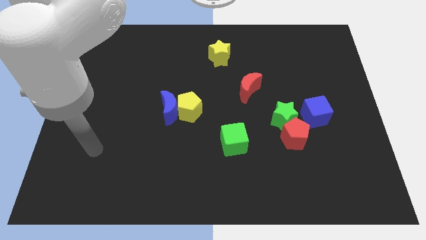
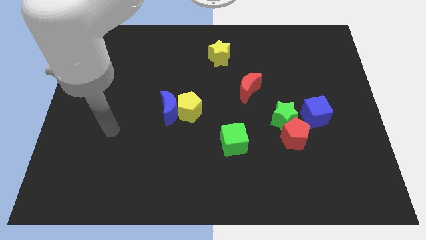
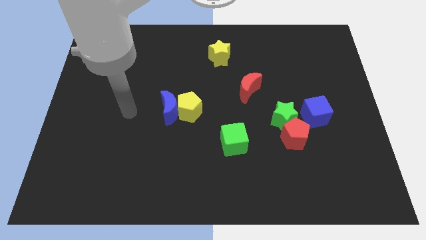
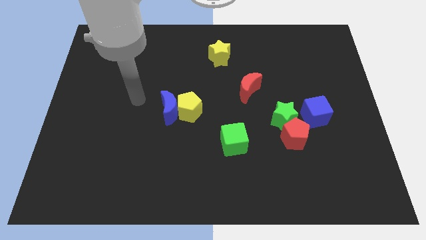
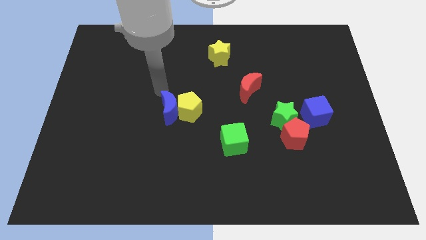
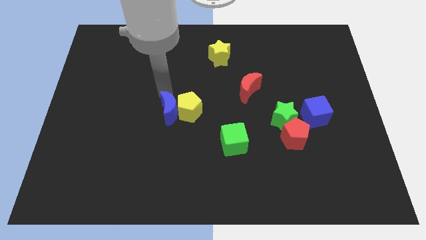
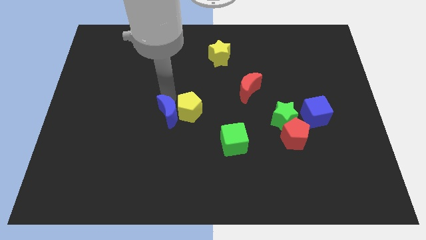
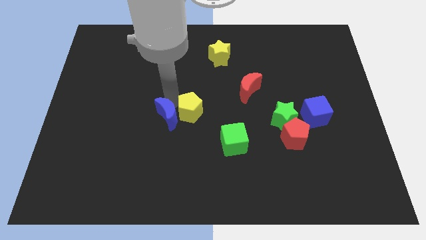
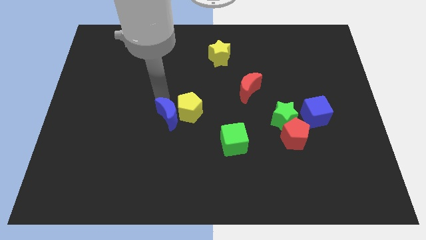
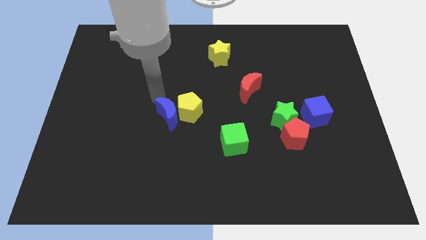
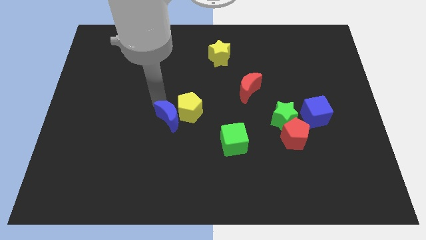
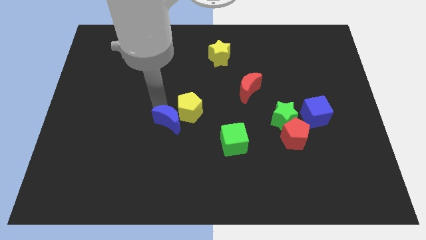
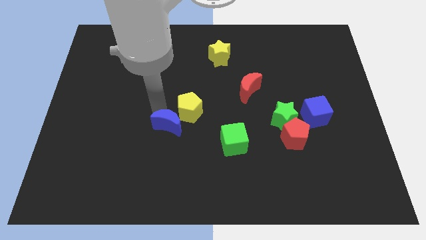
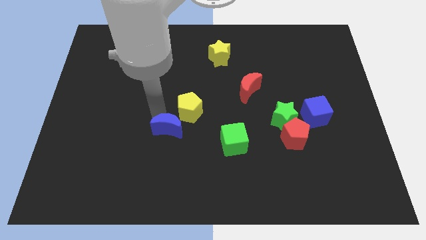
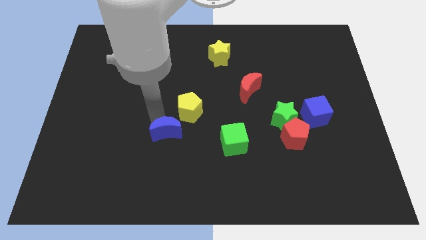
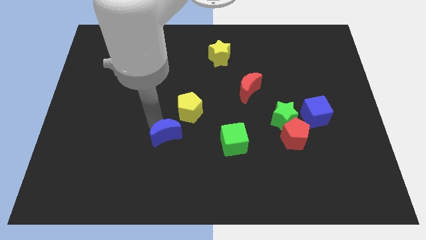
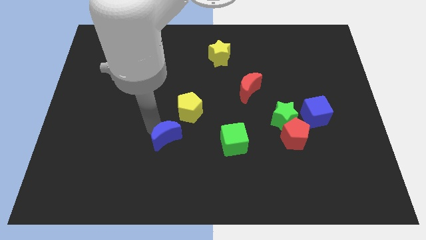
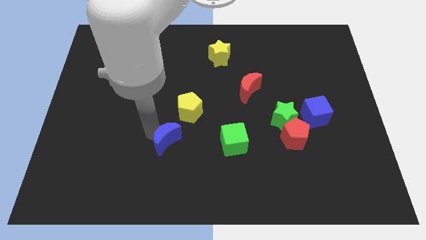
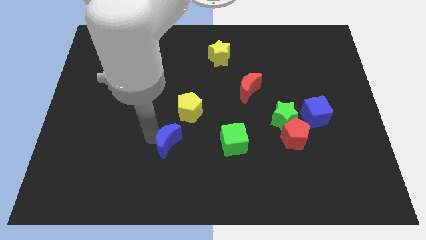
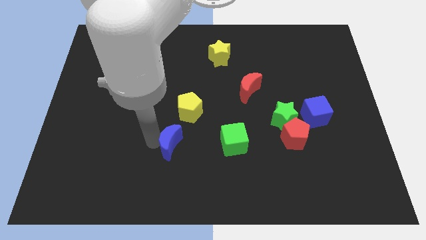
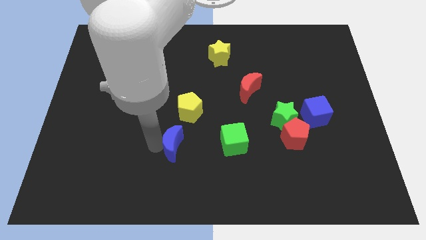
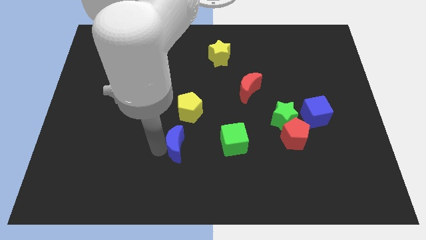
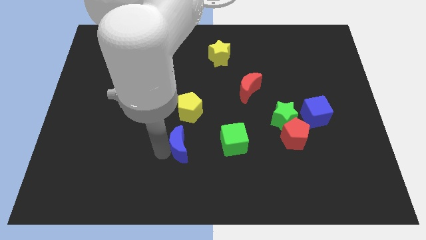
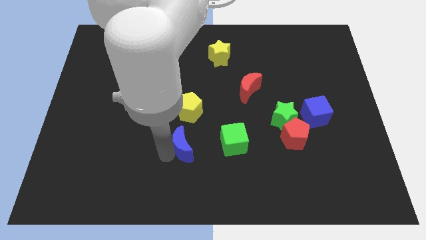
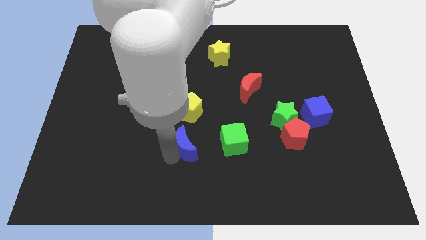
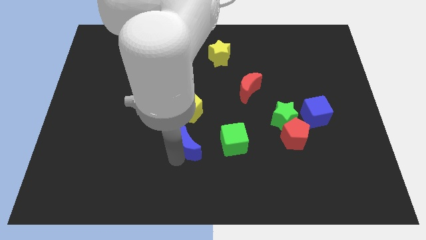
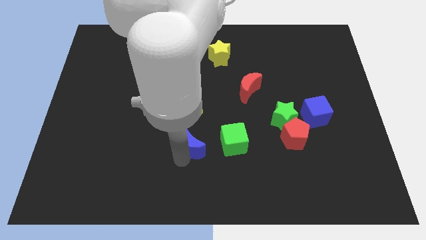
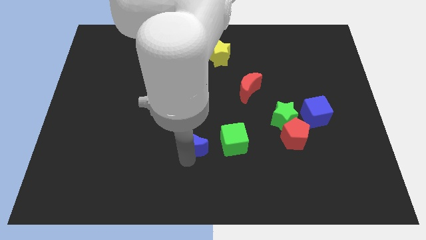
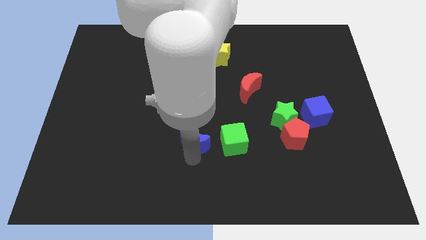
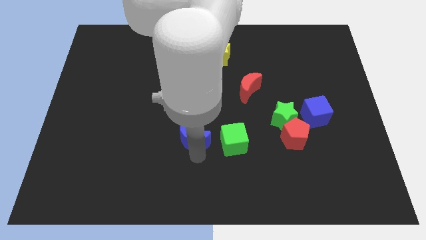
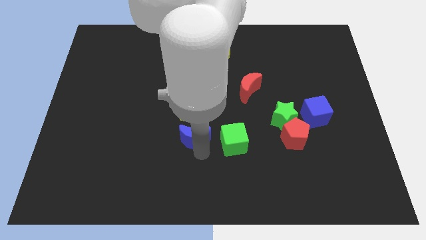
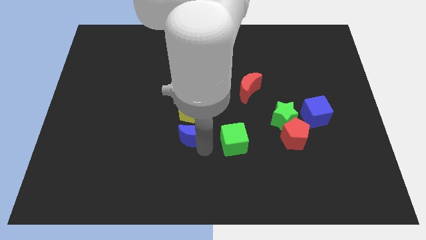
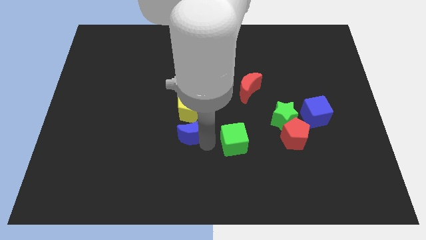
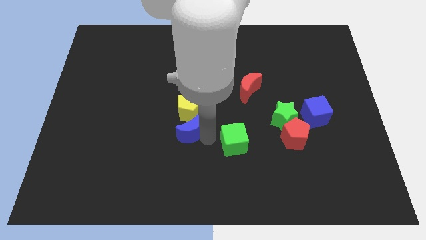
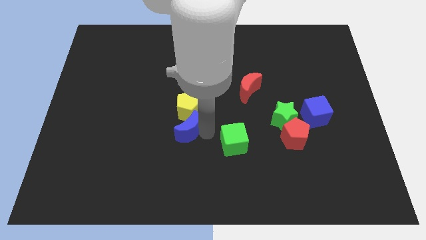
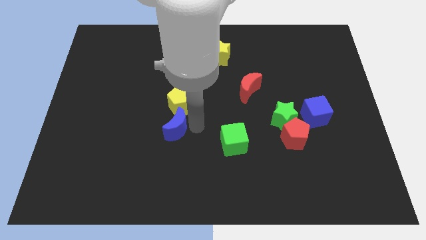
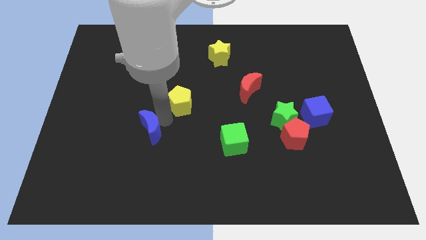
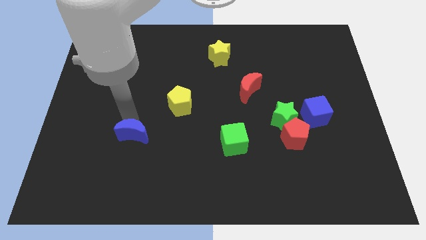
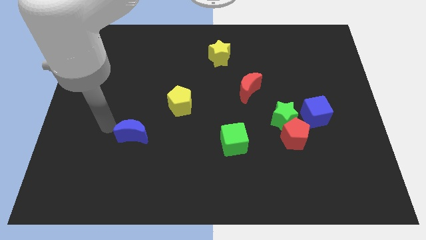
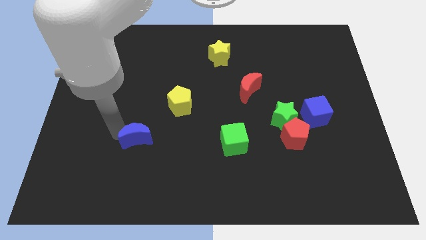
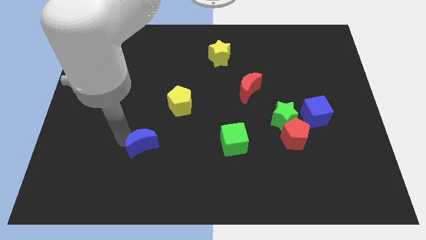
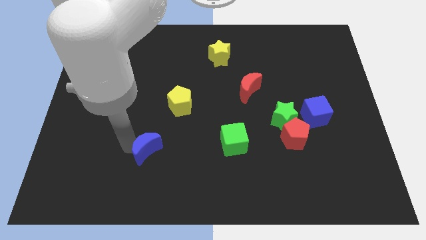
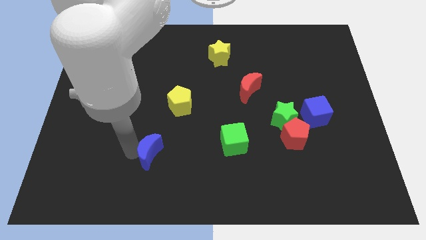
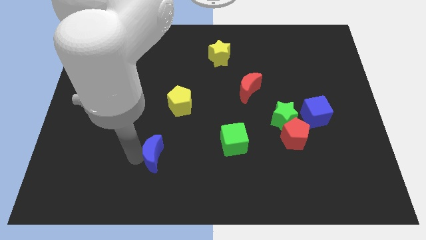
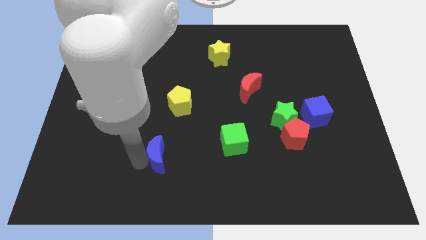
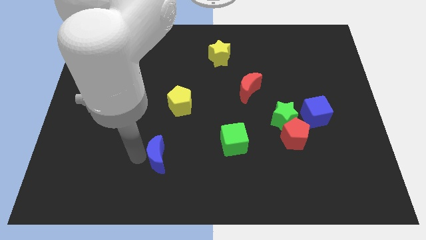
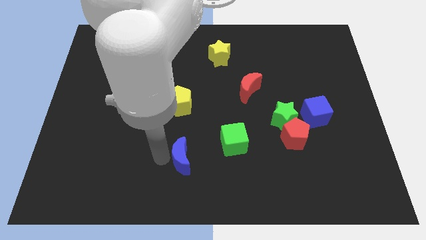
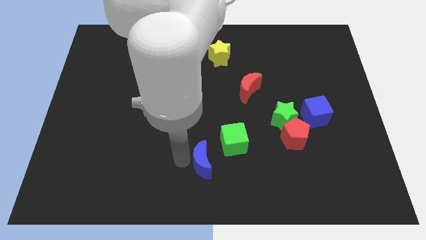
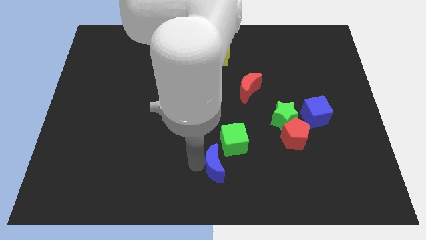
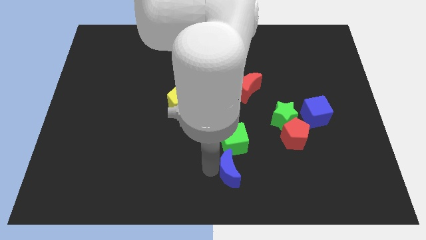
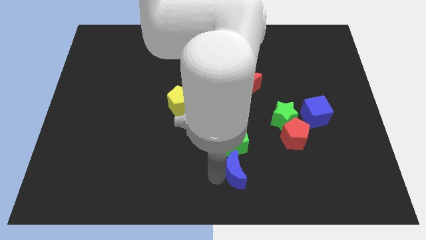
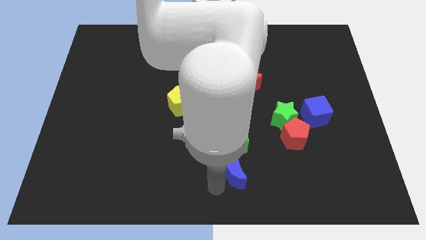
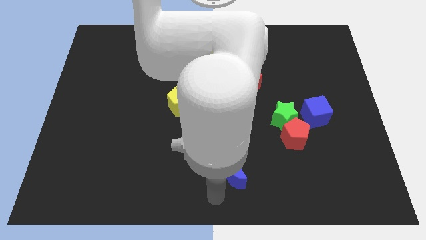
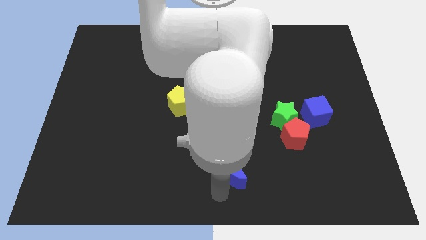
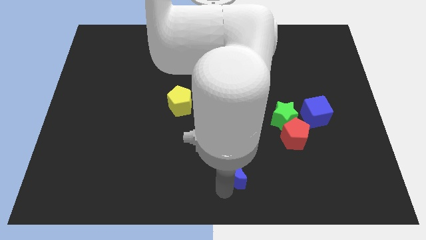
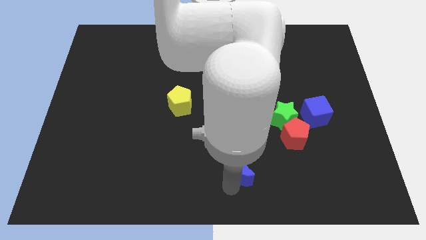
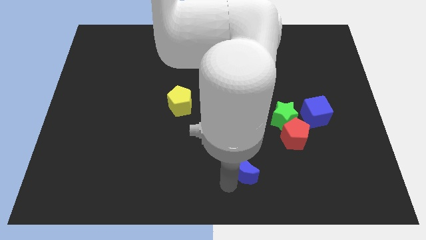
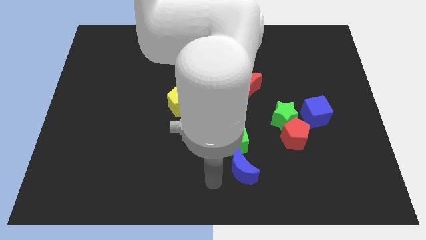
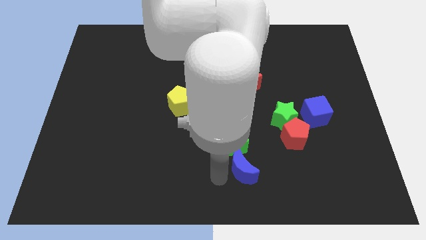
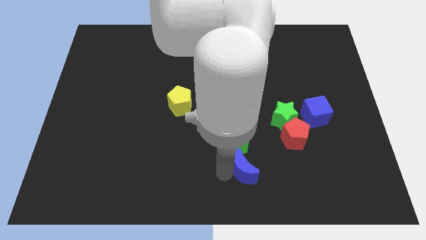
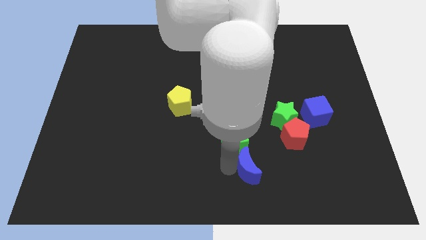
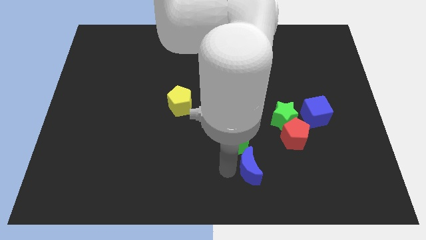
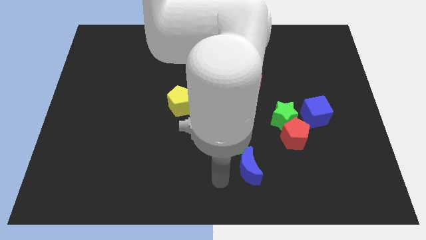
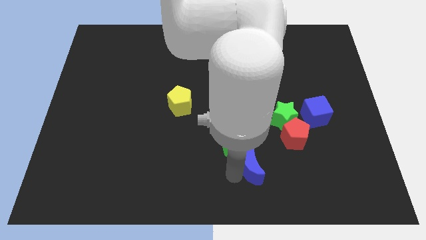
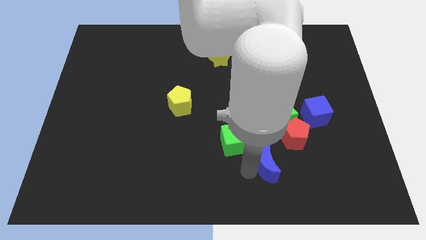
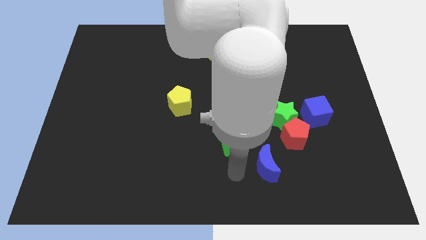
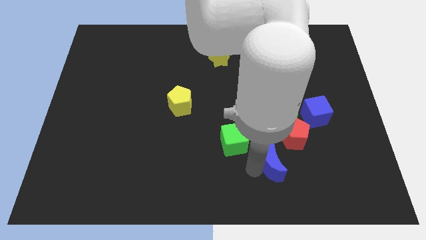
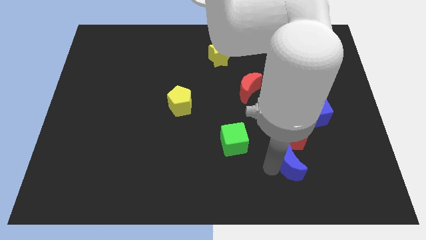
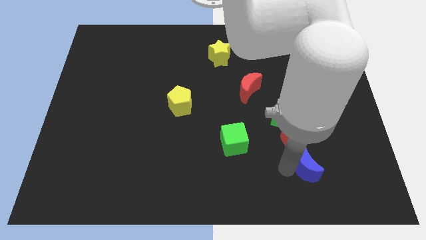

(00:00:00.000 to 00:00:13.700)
slide the blue moon diagonally down and to the right of the red pentagon

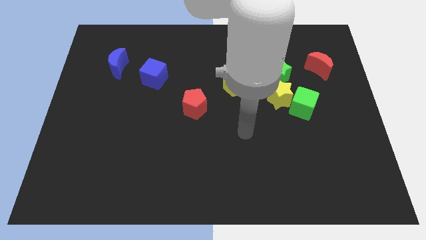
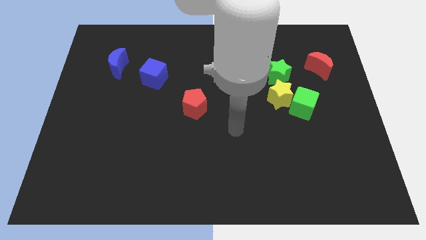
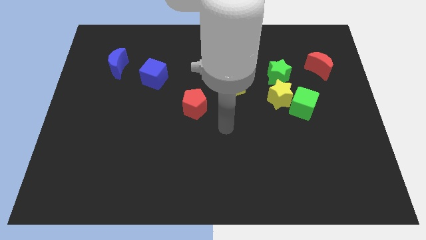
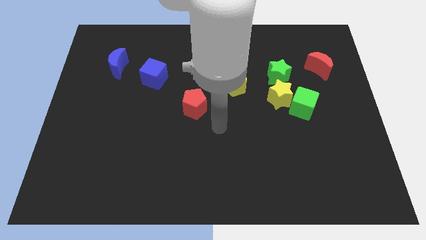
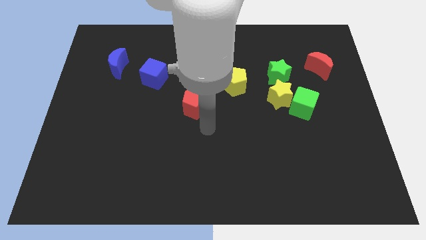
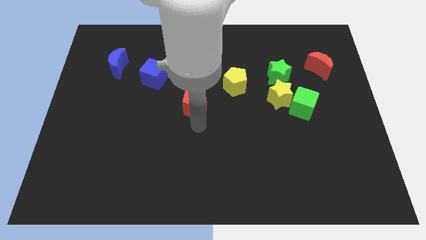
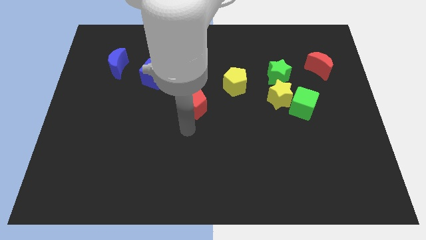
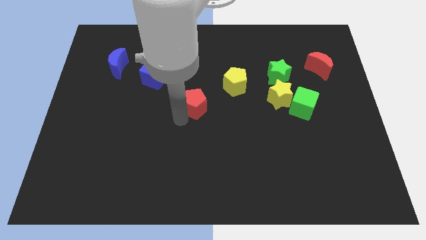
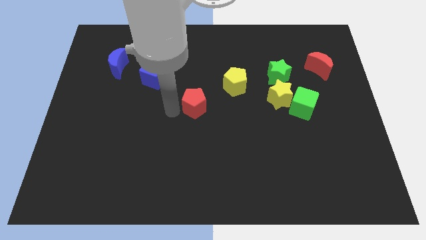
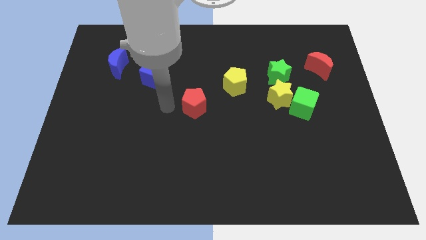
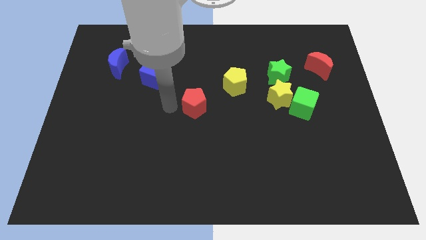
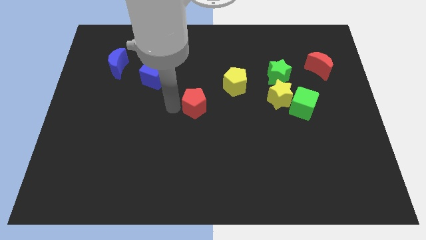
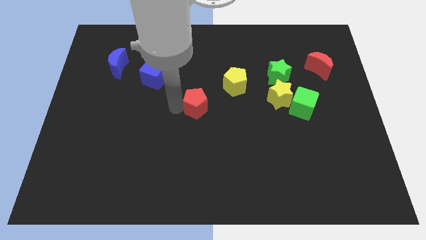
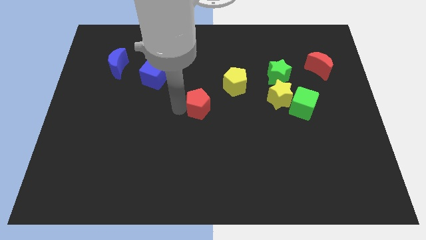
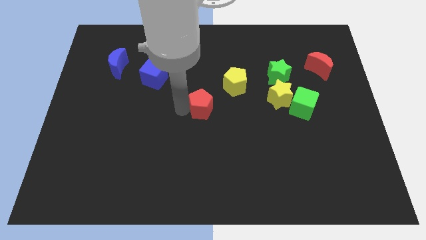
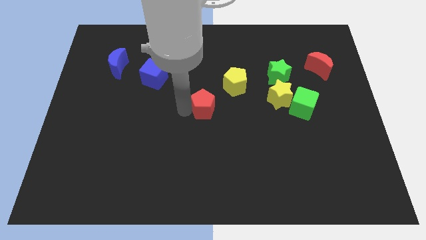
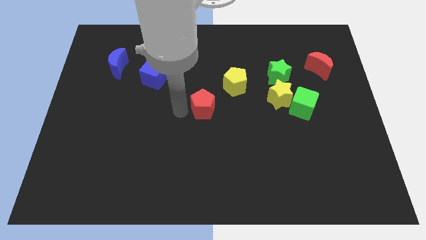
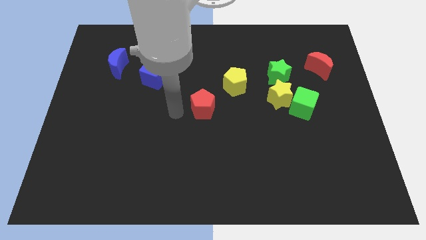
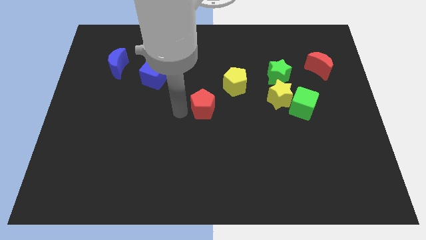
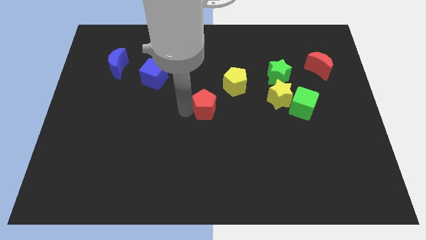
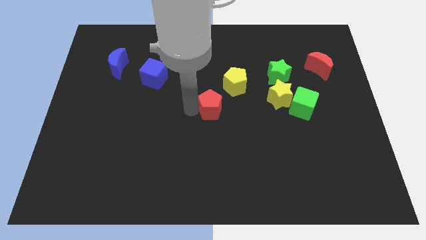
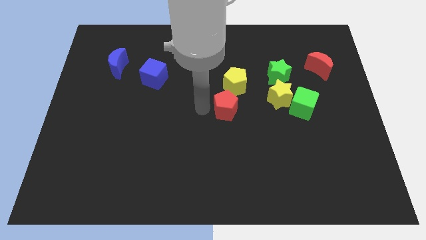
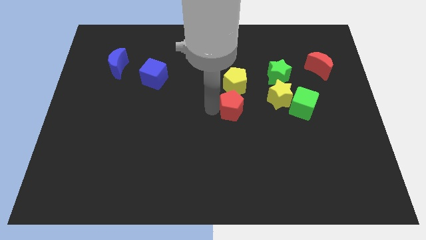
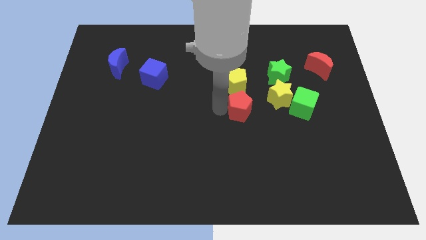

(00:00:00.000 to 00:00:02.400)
slide the red pentagon to the bottom right of the yellow pentagon
